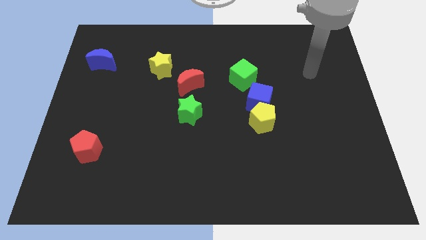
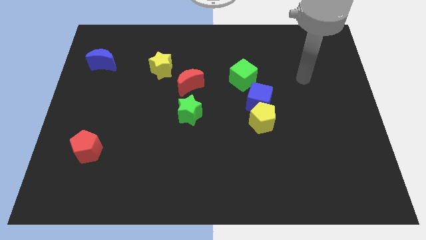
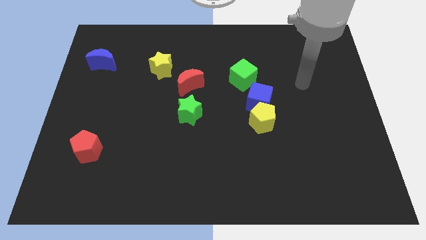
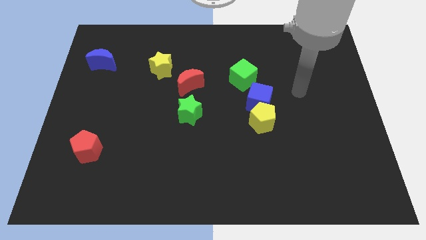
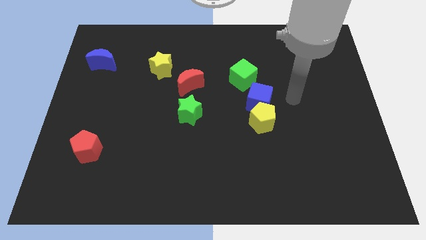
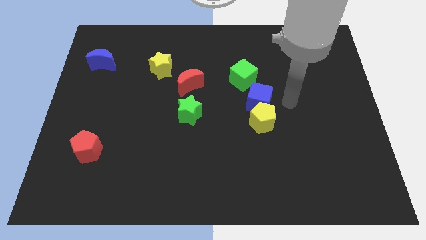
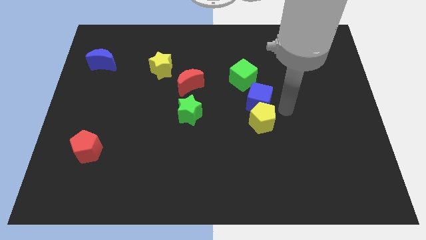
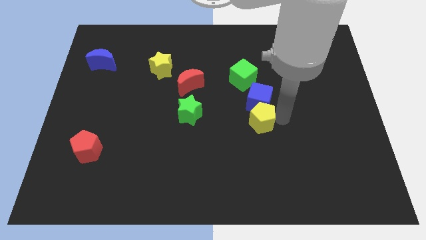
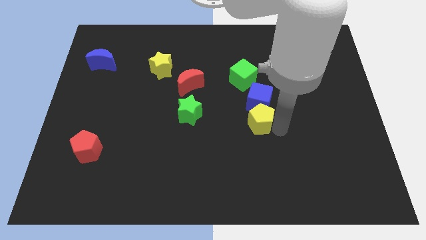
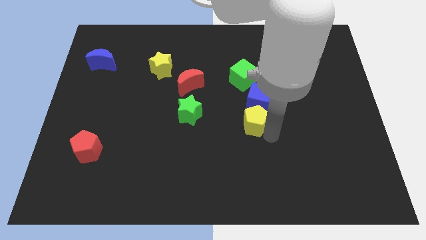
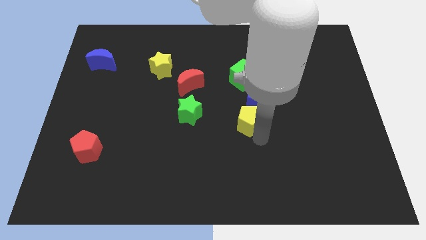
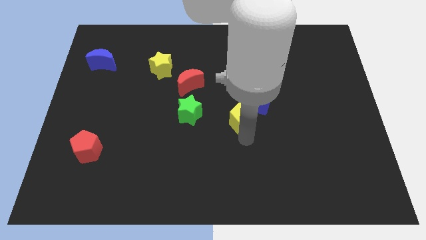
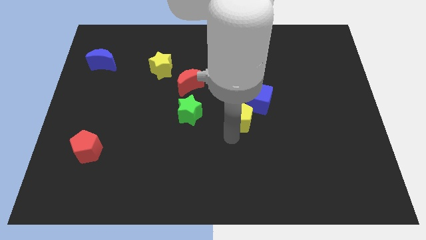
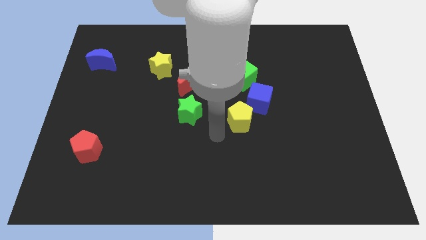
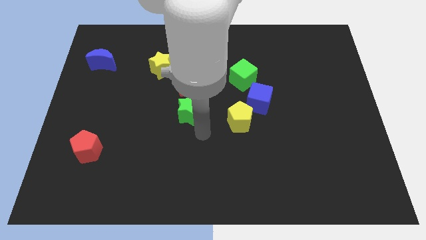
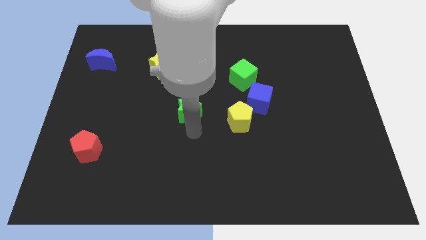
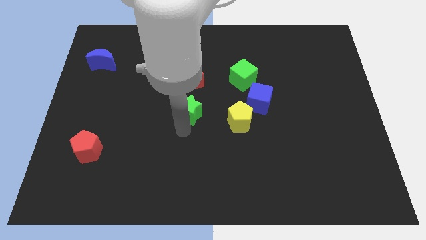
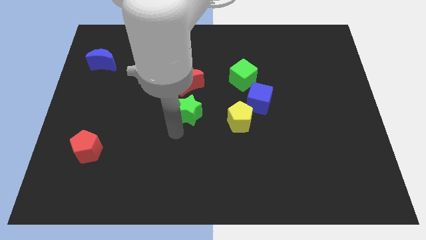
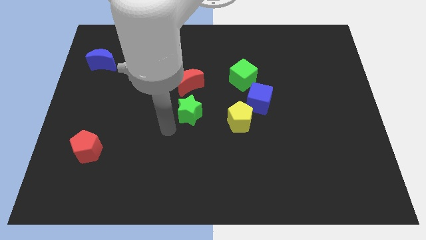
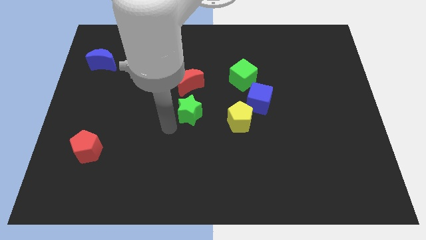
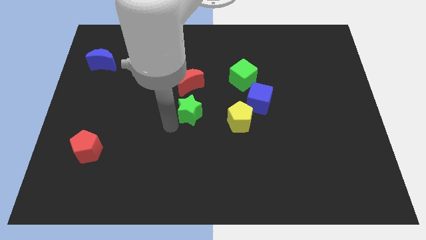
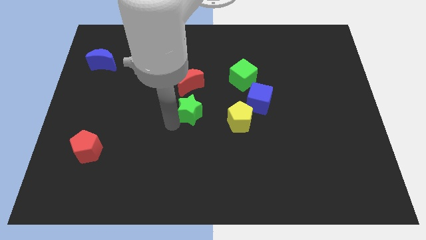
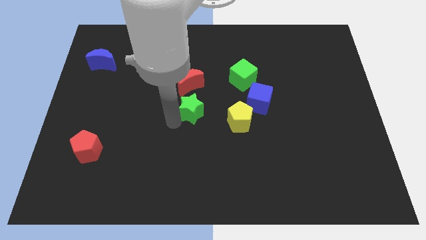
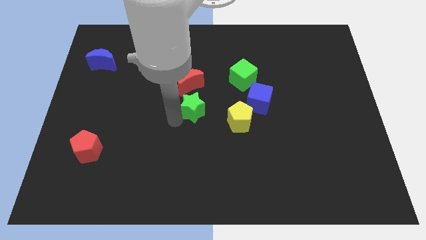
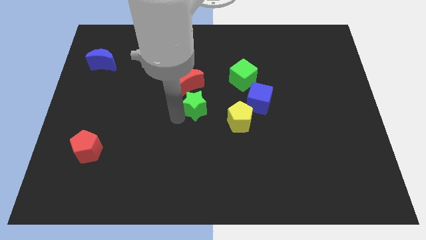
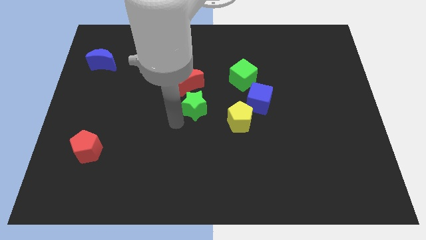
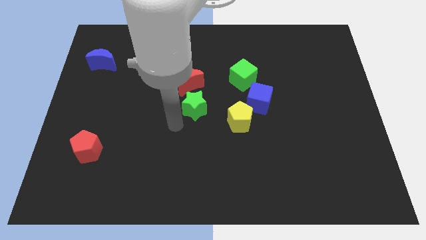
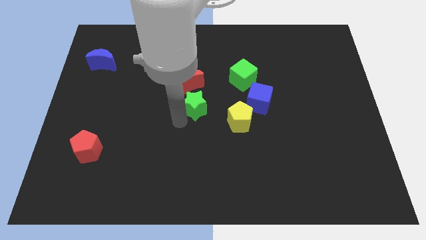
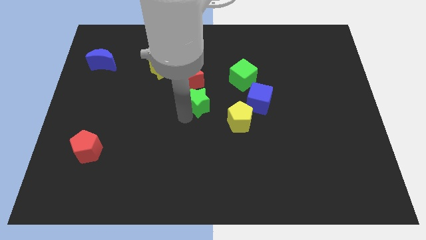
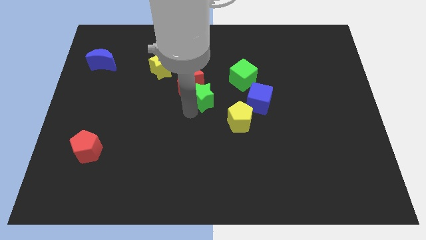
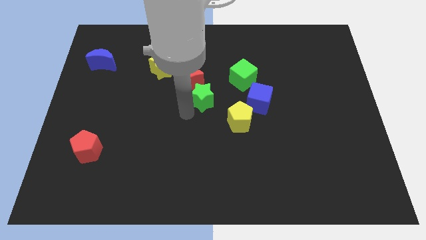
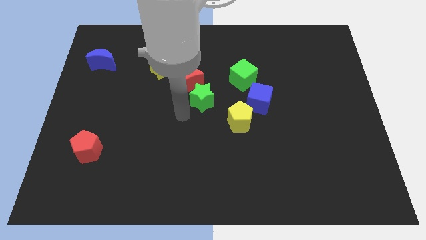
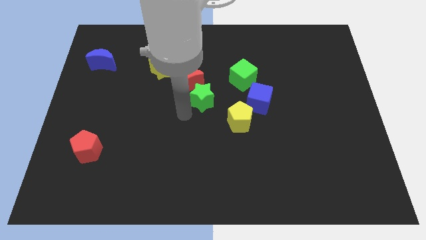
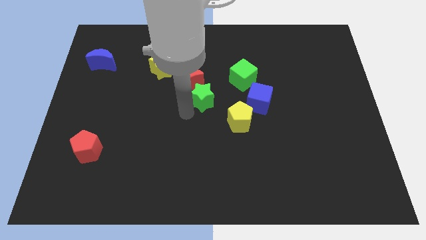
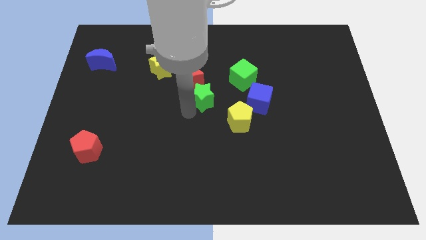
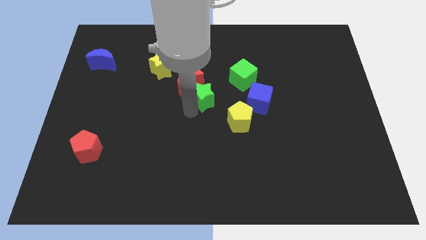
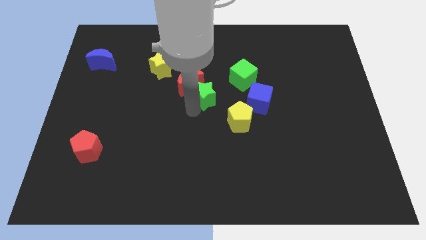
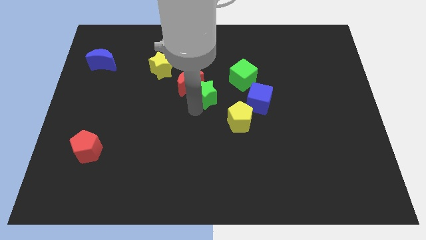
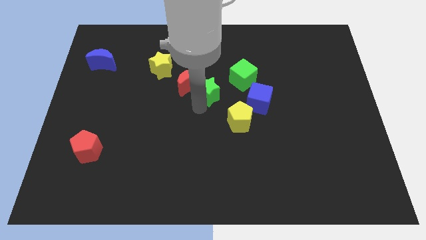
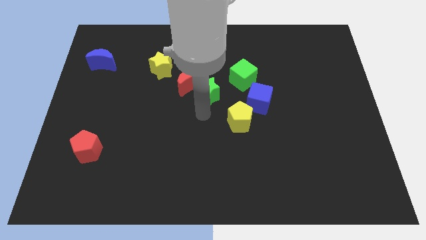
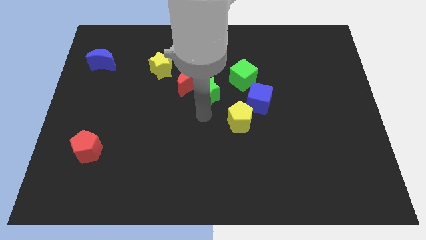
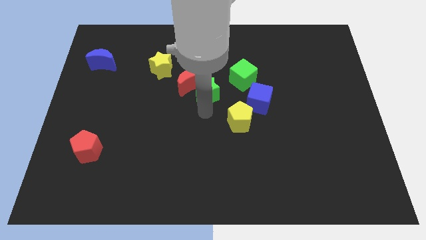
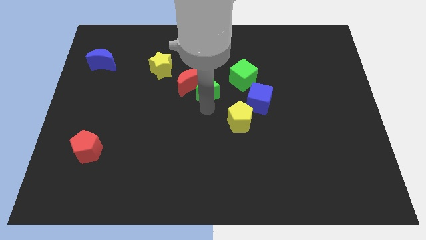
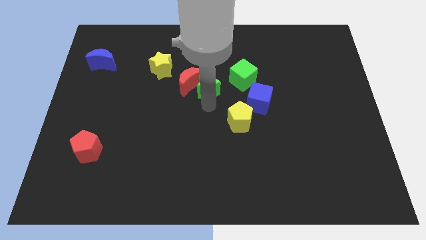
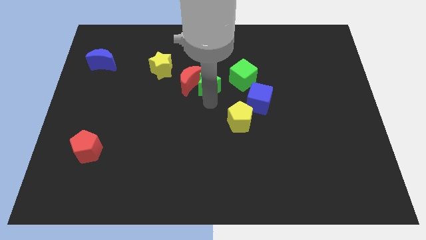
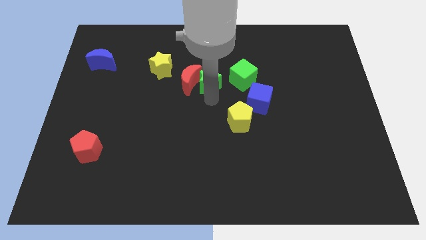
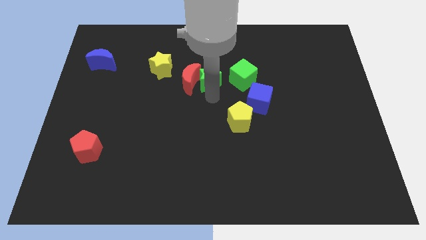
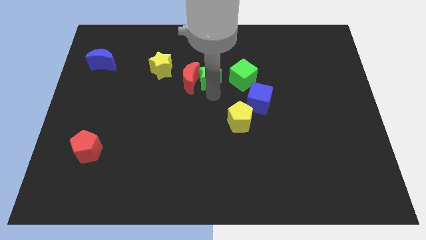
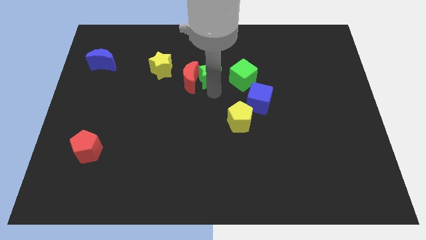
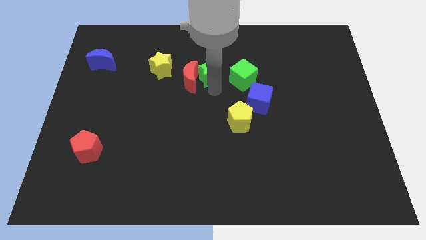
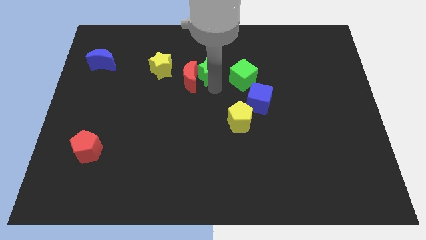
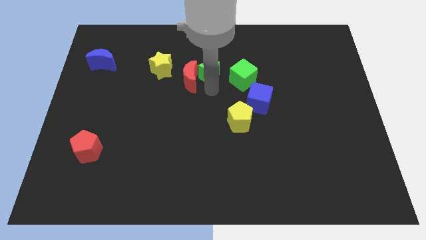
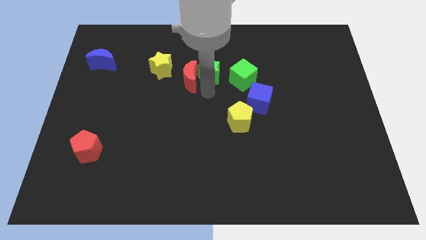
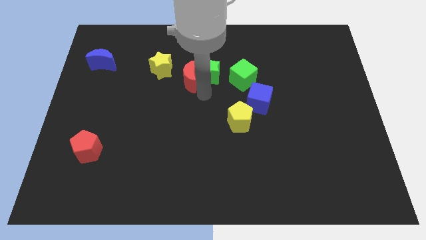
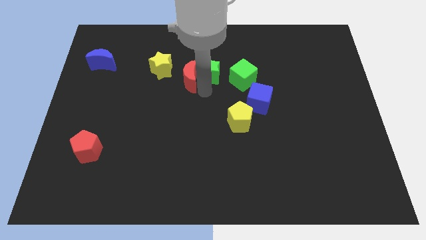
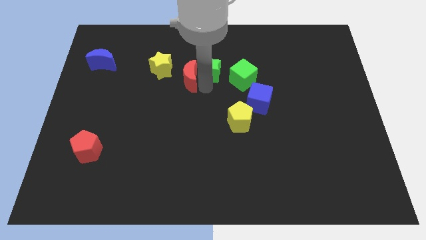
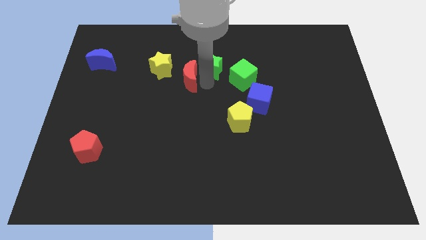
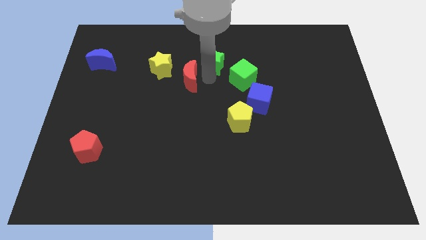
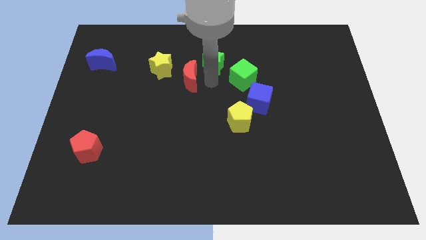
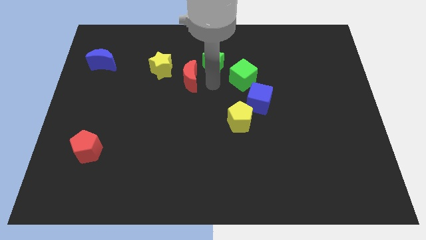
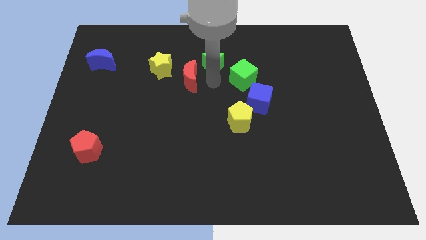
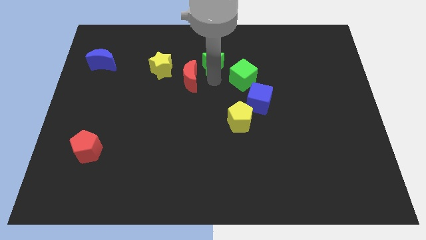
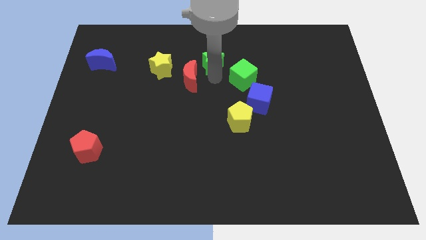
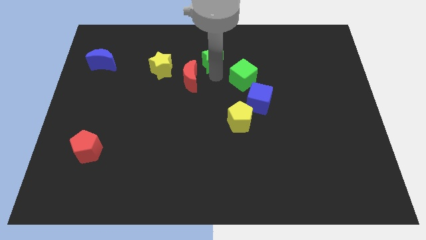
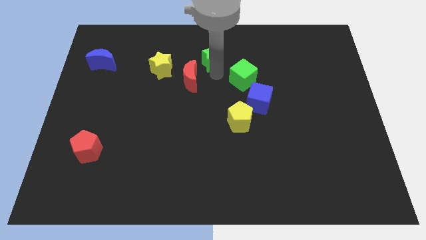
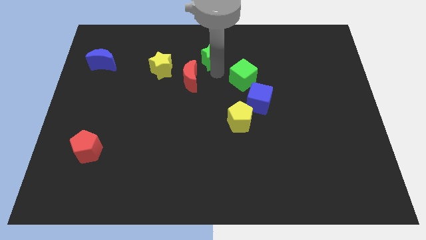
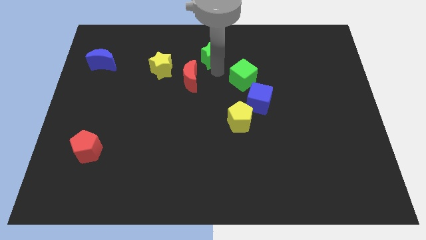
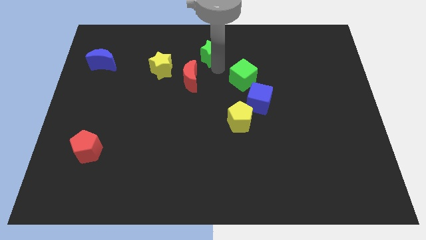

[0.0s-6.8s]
move the green star to the towards your base
